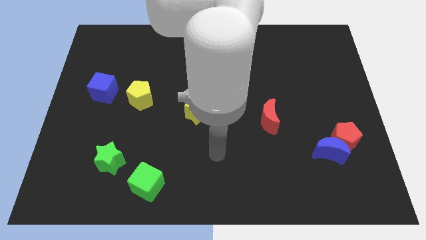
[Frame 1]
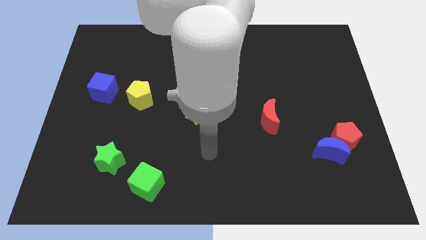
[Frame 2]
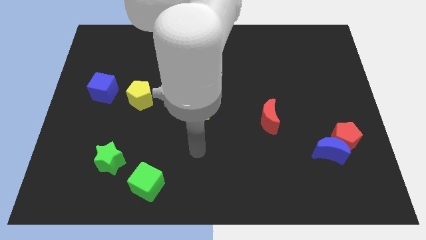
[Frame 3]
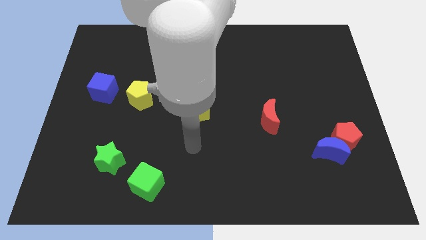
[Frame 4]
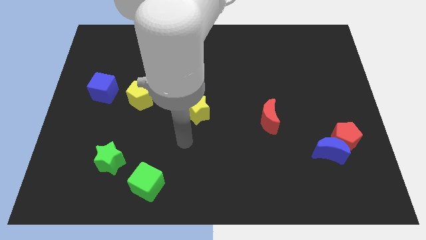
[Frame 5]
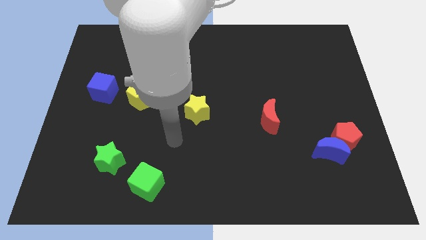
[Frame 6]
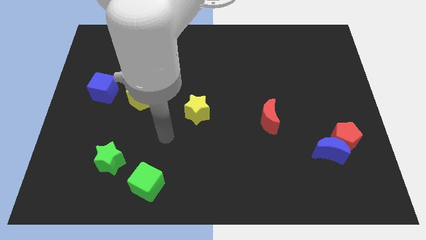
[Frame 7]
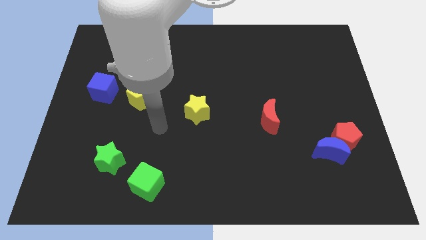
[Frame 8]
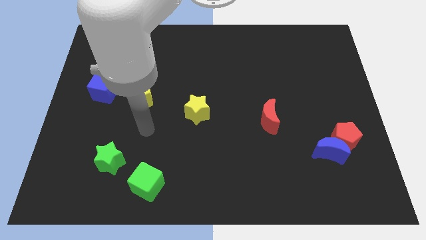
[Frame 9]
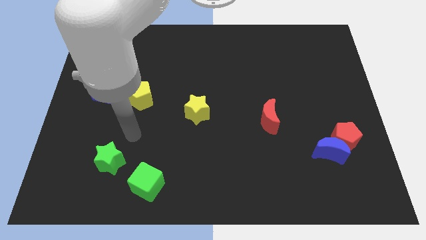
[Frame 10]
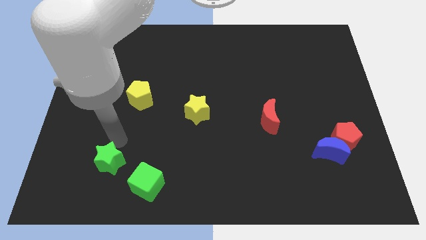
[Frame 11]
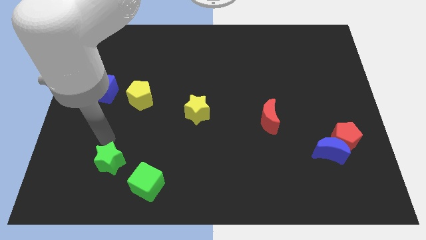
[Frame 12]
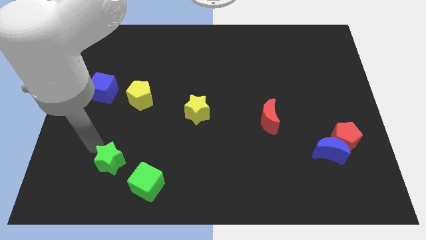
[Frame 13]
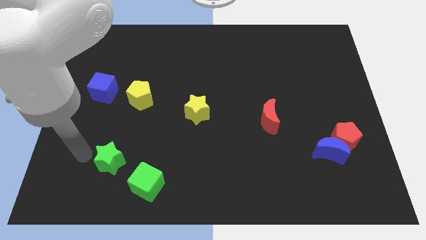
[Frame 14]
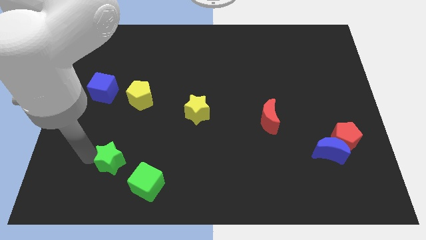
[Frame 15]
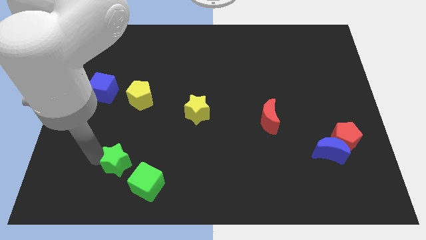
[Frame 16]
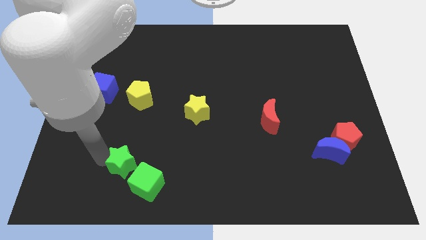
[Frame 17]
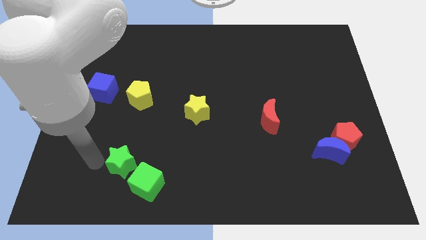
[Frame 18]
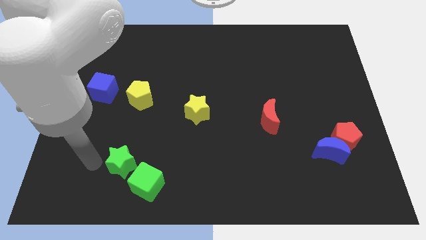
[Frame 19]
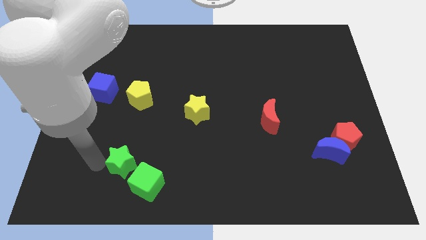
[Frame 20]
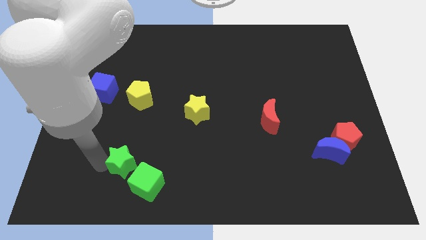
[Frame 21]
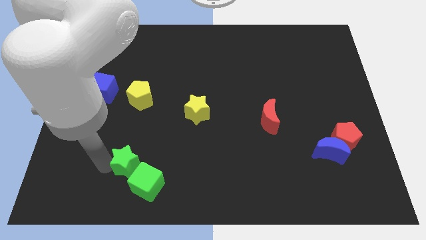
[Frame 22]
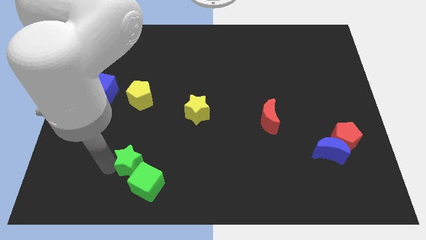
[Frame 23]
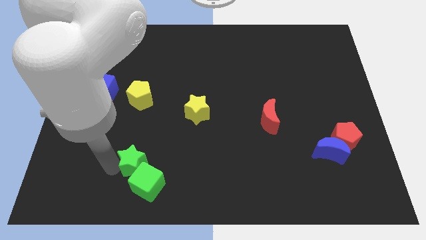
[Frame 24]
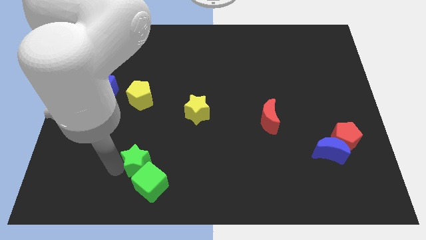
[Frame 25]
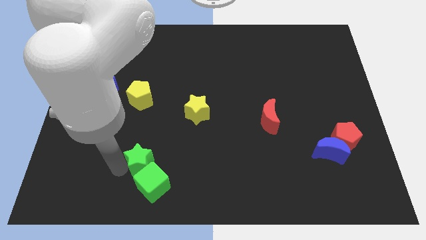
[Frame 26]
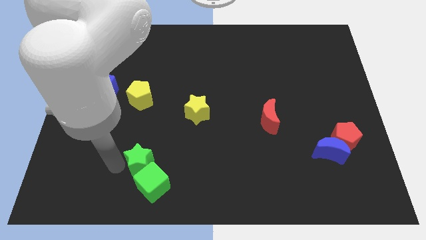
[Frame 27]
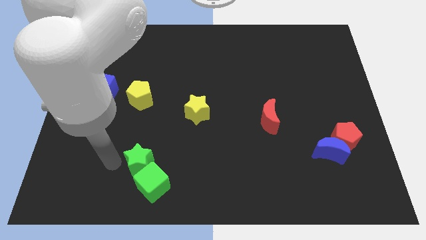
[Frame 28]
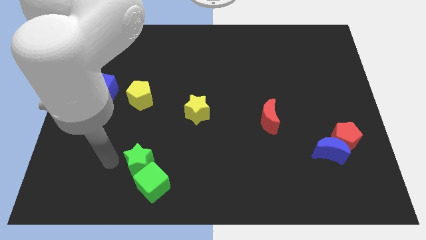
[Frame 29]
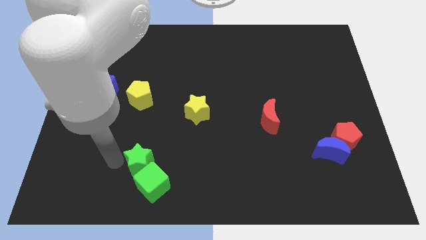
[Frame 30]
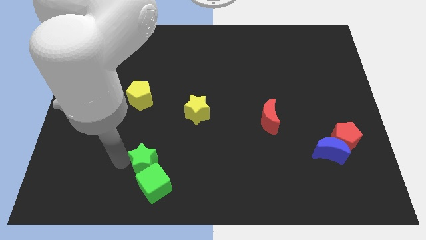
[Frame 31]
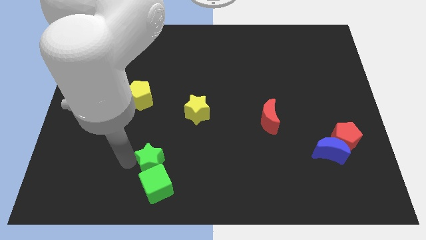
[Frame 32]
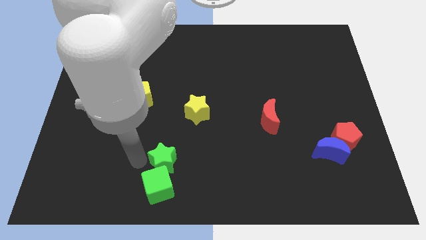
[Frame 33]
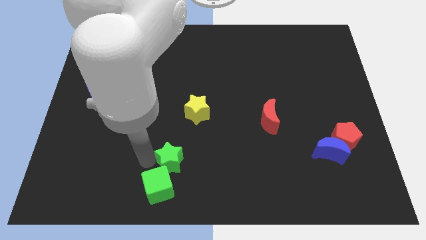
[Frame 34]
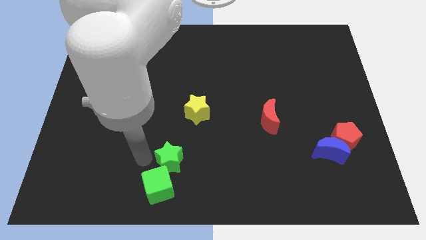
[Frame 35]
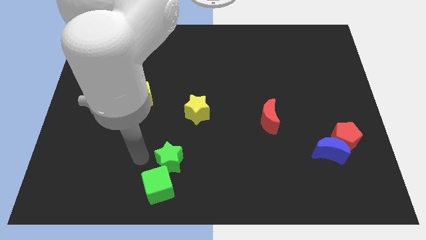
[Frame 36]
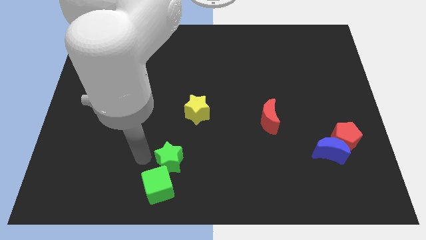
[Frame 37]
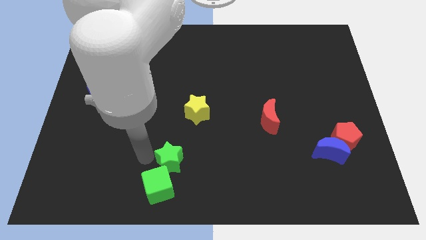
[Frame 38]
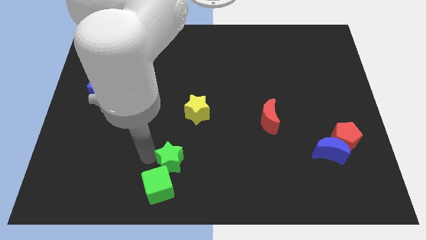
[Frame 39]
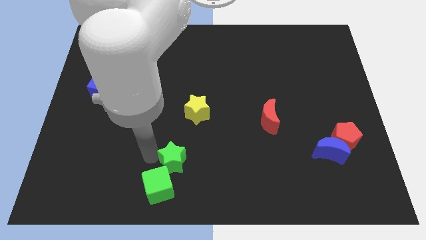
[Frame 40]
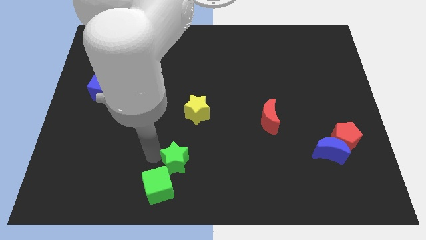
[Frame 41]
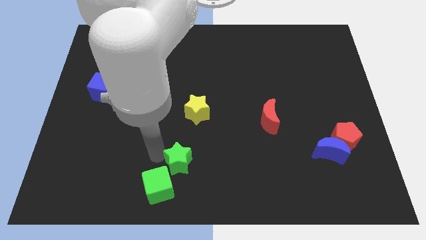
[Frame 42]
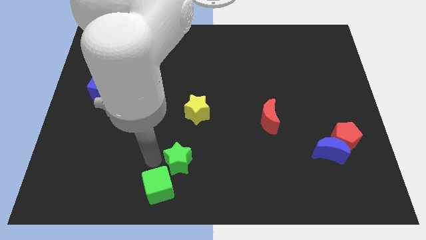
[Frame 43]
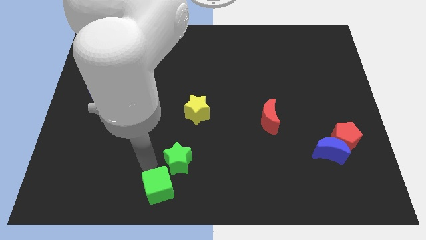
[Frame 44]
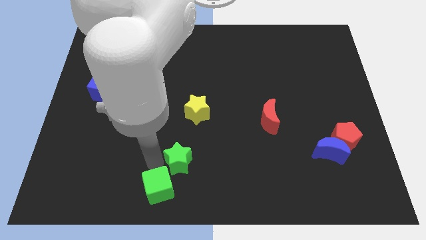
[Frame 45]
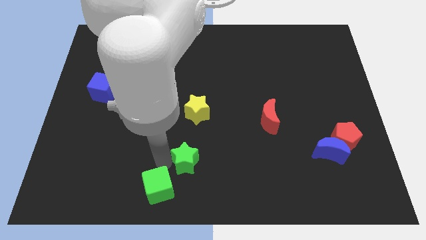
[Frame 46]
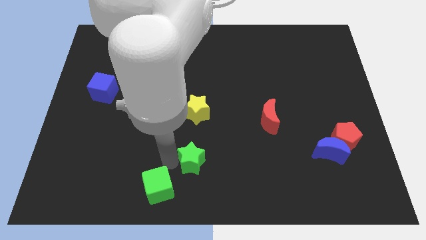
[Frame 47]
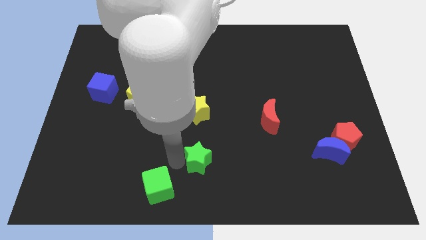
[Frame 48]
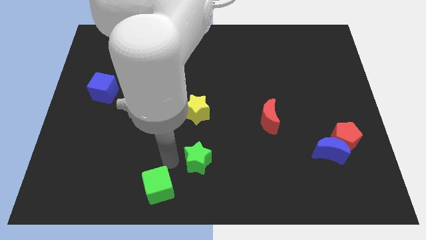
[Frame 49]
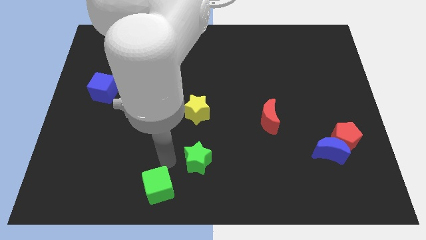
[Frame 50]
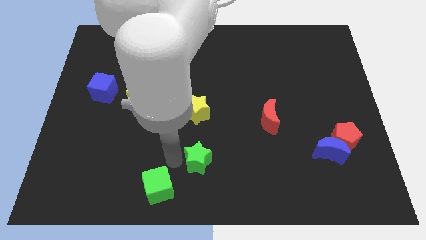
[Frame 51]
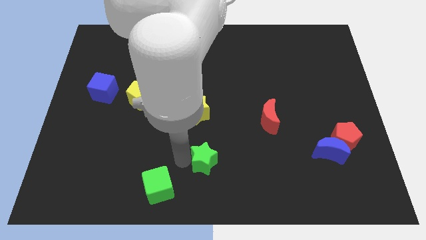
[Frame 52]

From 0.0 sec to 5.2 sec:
slide the green star to the right

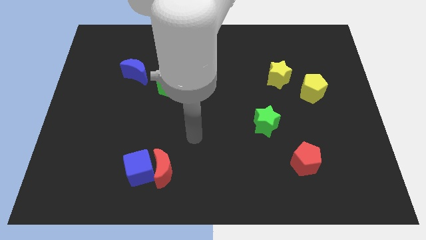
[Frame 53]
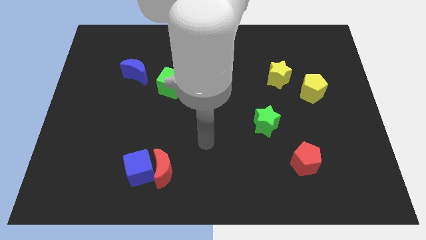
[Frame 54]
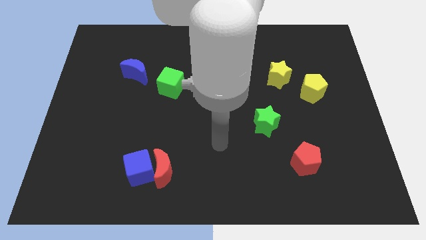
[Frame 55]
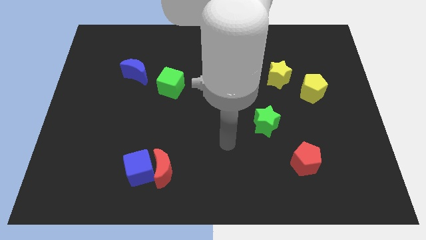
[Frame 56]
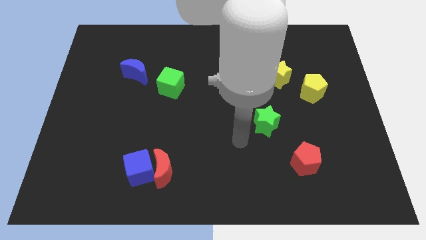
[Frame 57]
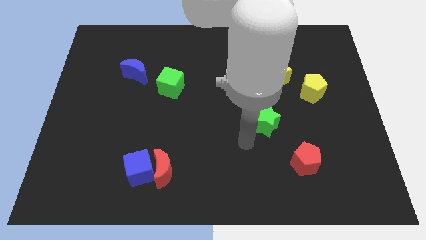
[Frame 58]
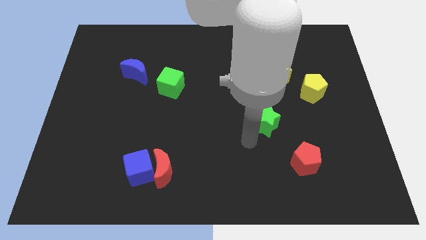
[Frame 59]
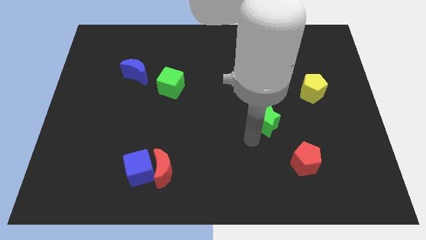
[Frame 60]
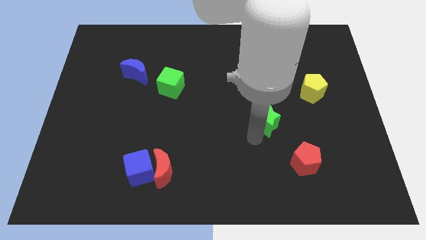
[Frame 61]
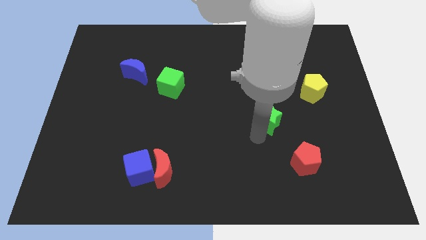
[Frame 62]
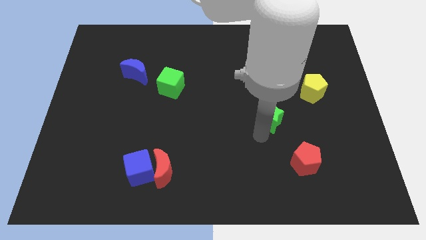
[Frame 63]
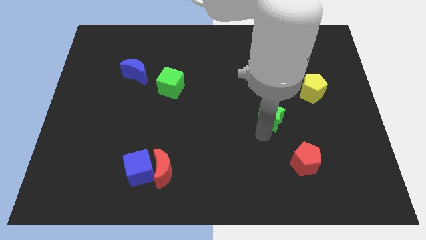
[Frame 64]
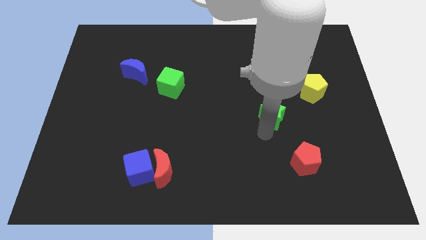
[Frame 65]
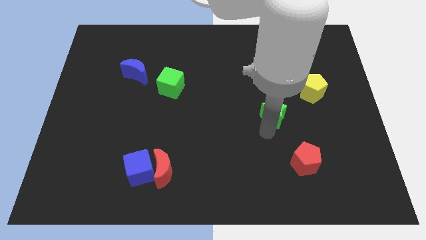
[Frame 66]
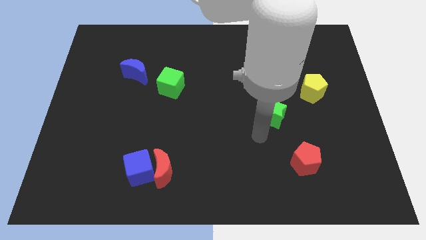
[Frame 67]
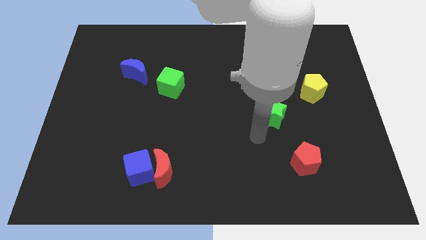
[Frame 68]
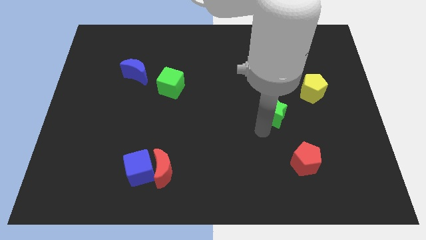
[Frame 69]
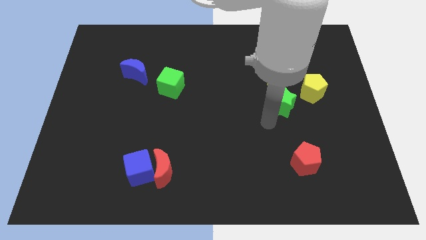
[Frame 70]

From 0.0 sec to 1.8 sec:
slightly slide the green star up and then to the right

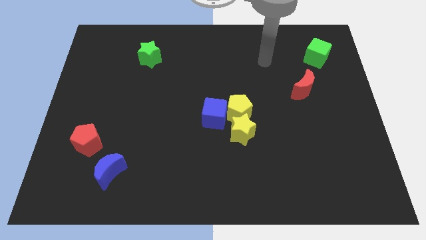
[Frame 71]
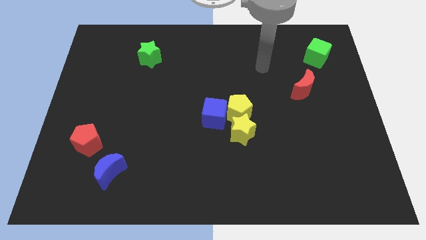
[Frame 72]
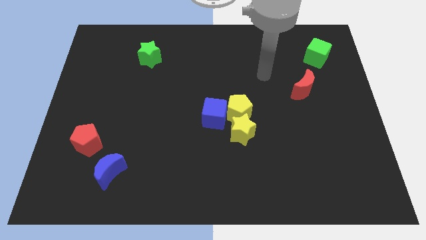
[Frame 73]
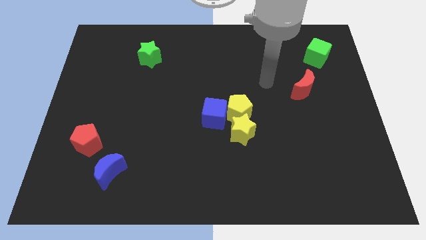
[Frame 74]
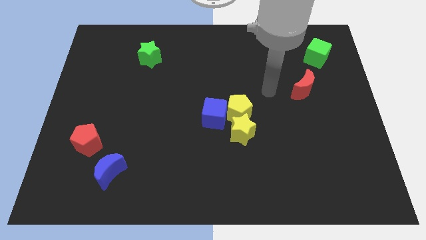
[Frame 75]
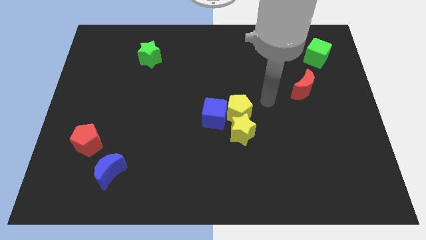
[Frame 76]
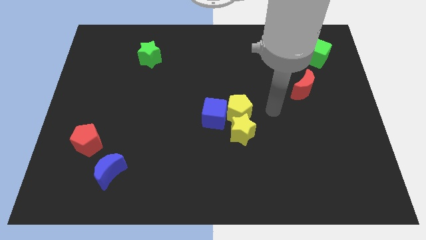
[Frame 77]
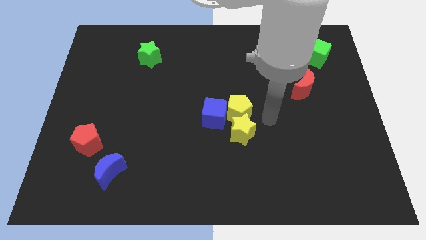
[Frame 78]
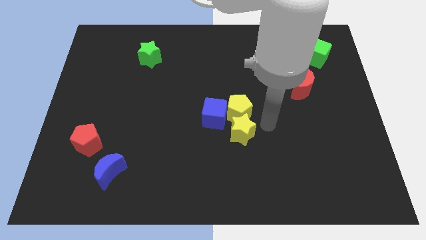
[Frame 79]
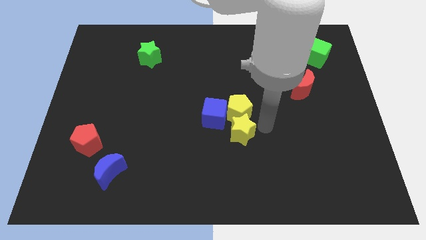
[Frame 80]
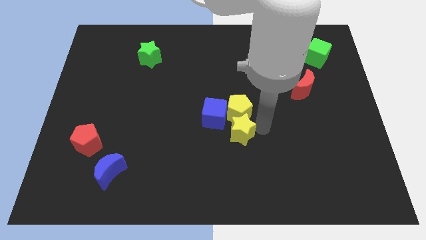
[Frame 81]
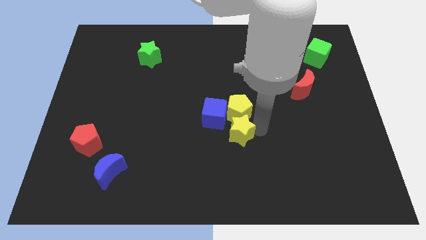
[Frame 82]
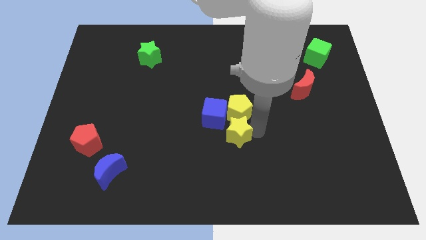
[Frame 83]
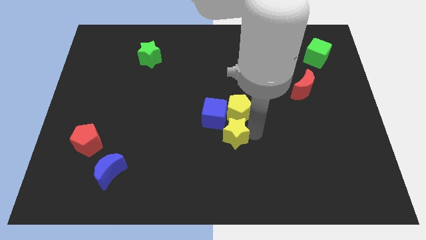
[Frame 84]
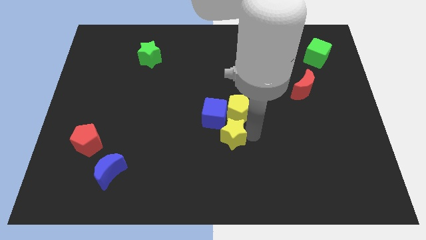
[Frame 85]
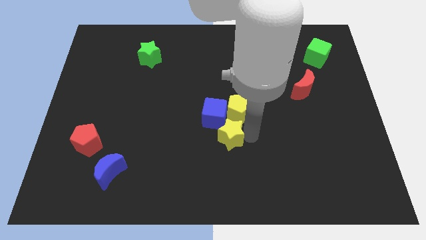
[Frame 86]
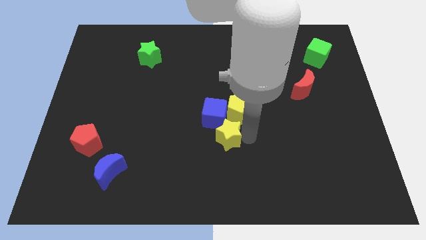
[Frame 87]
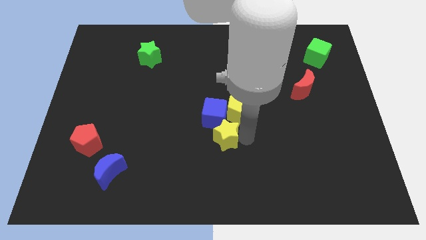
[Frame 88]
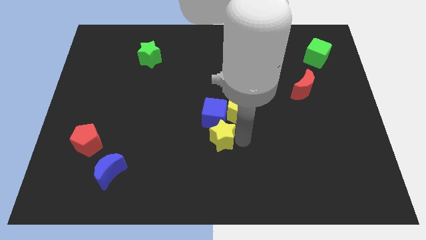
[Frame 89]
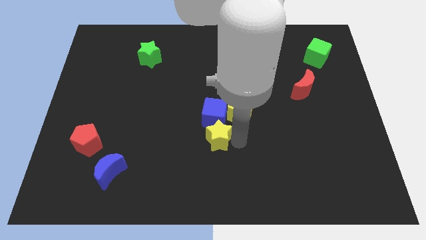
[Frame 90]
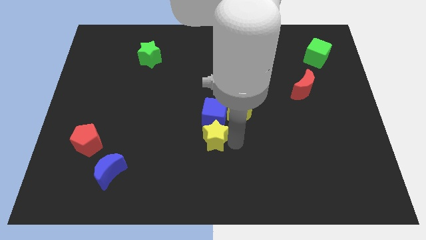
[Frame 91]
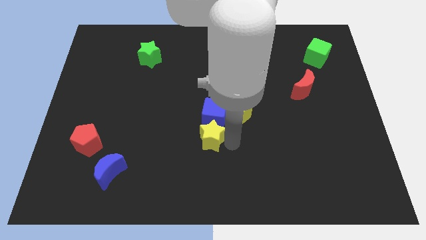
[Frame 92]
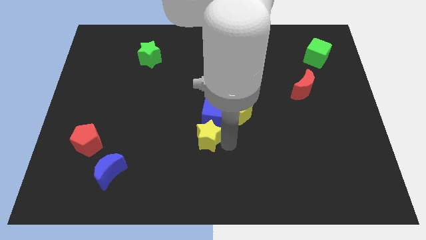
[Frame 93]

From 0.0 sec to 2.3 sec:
slightly push the yellow star left
